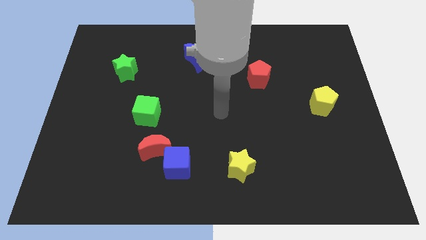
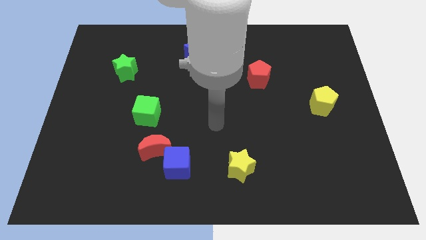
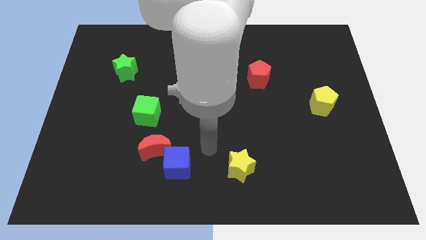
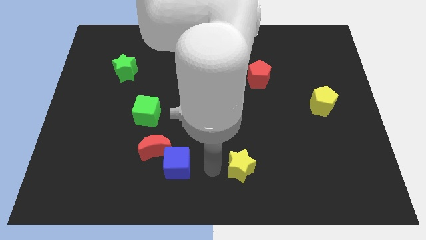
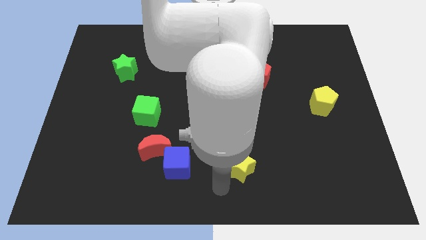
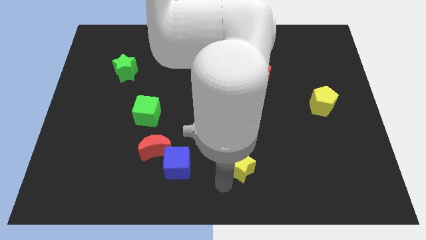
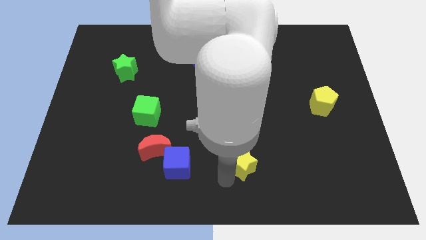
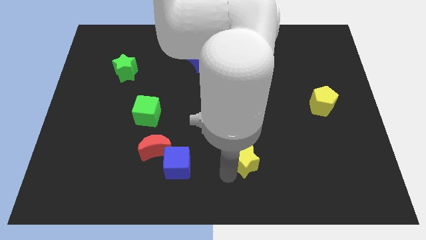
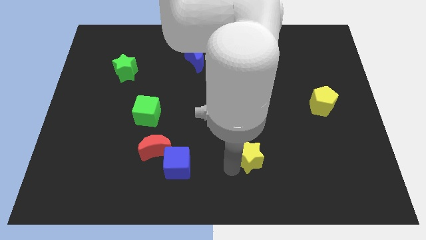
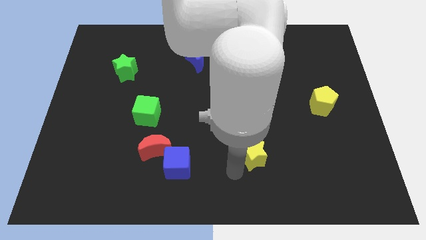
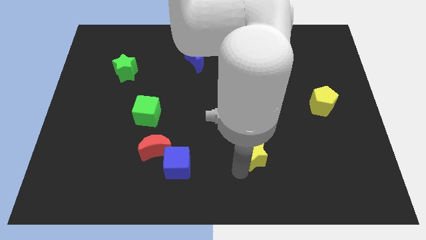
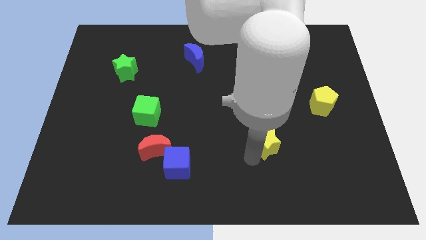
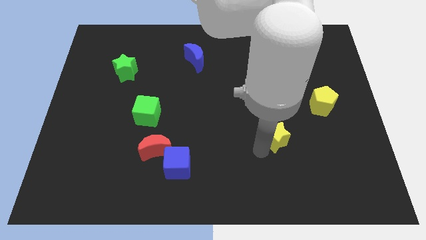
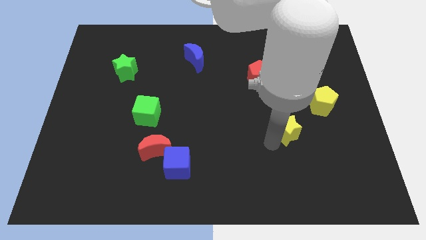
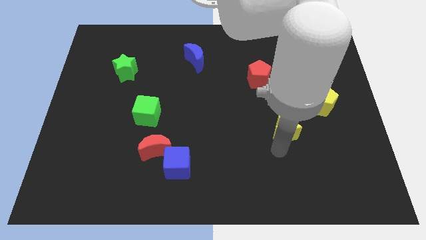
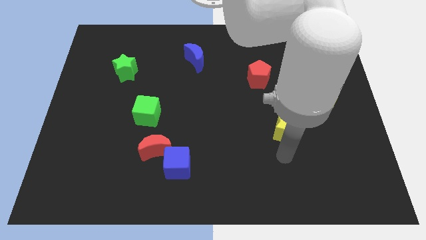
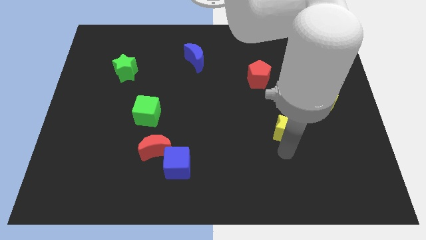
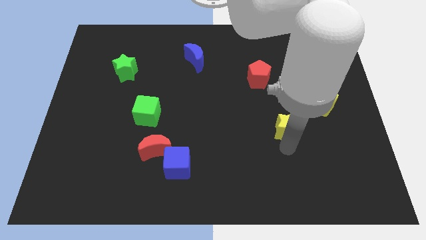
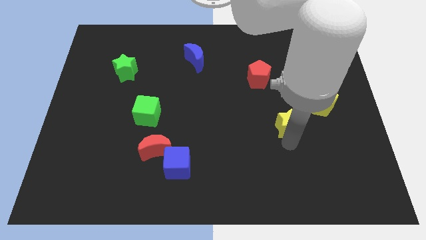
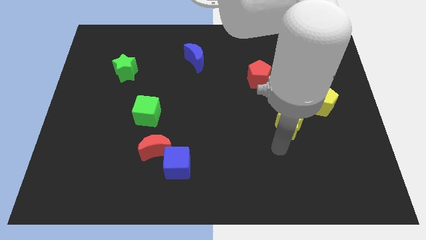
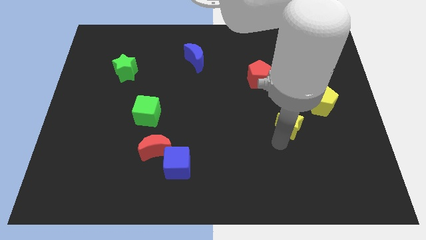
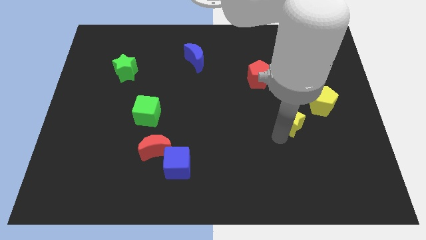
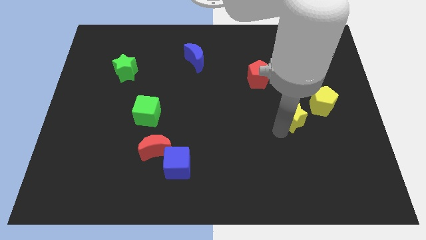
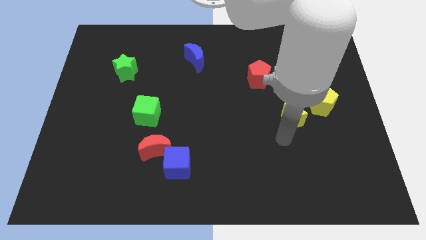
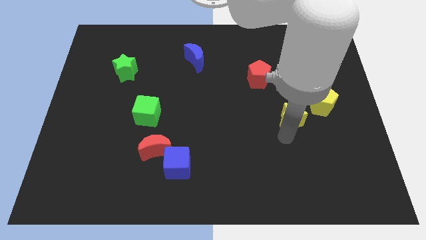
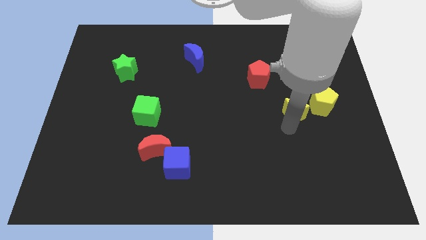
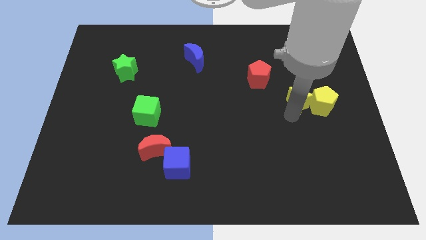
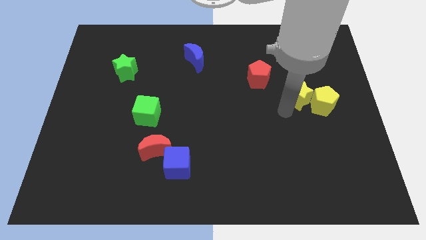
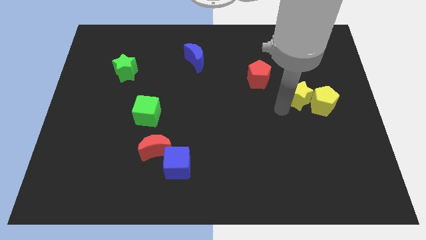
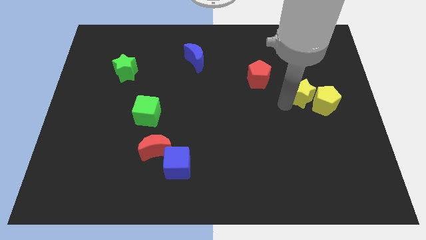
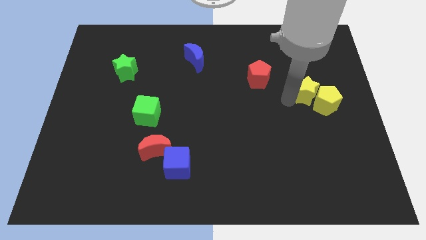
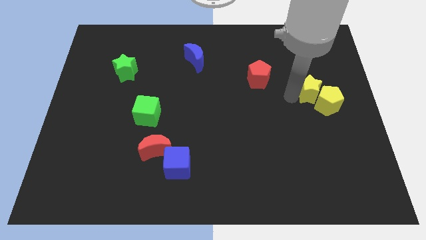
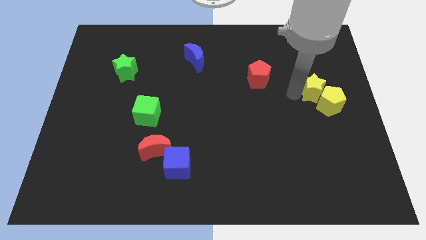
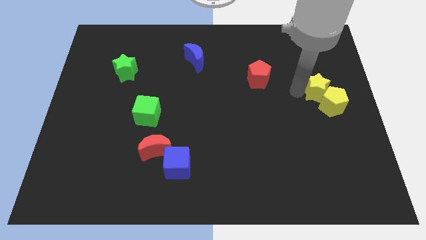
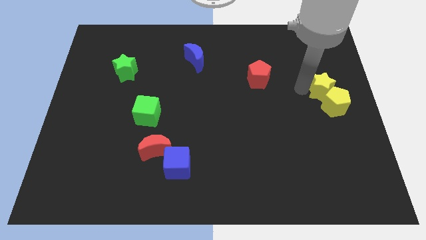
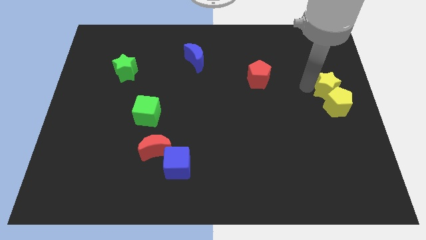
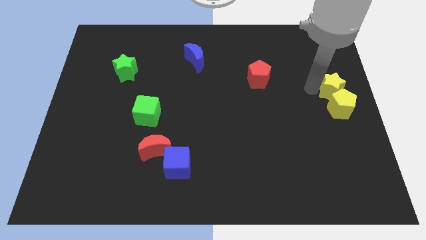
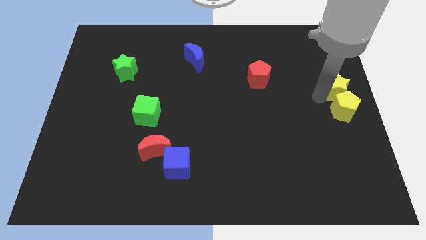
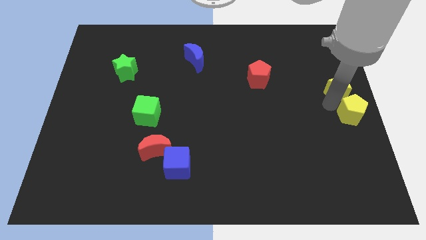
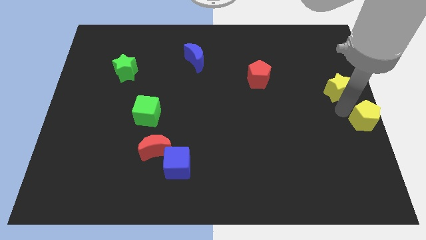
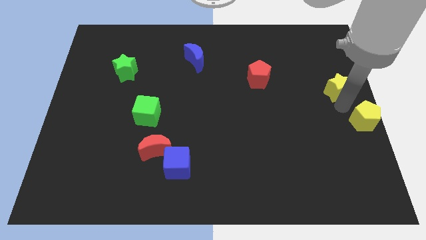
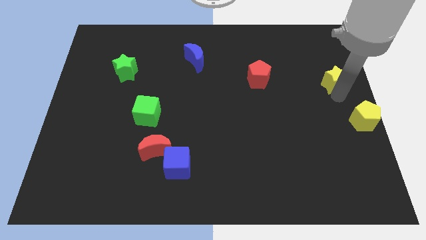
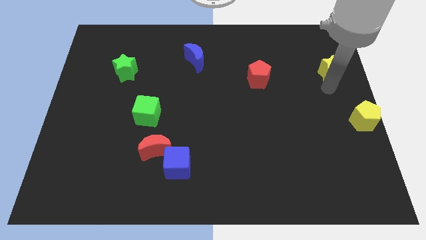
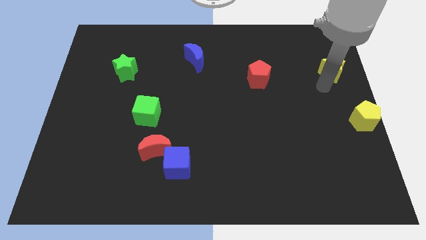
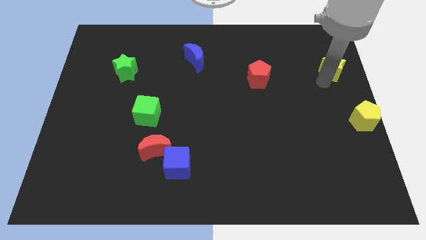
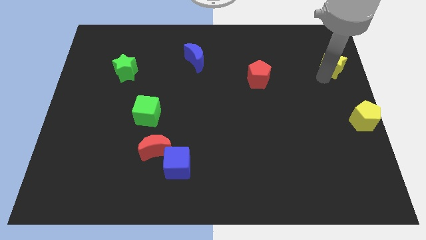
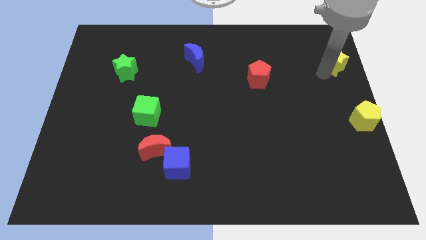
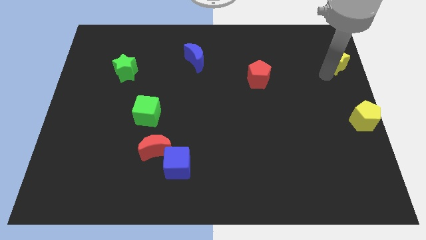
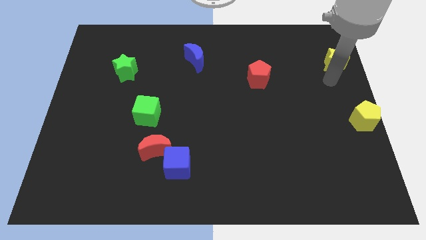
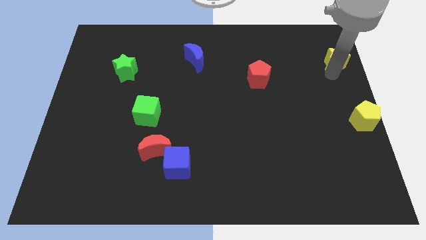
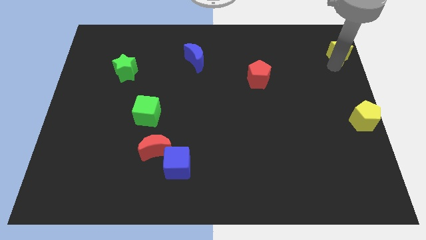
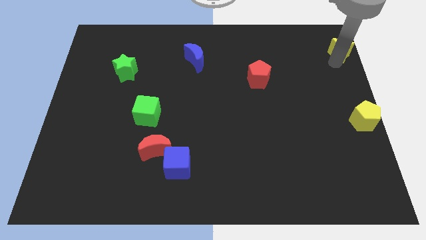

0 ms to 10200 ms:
push the yellow star to the top right corner
